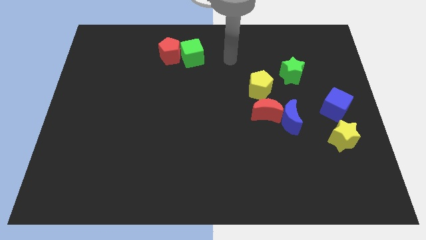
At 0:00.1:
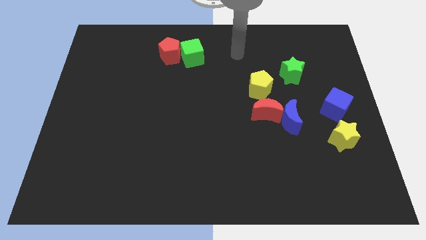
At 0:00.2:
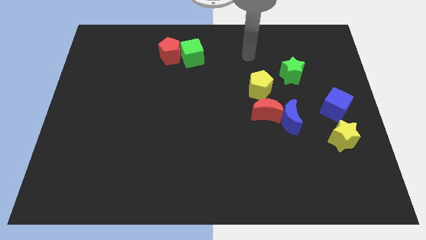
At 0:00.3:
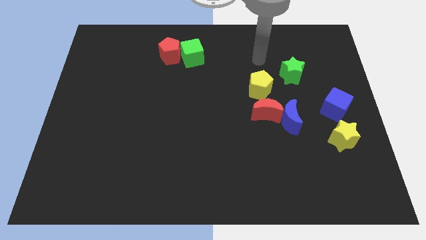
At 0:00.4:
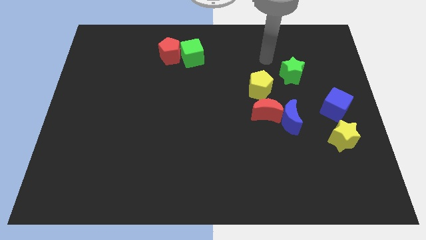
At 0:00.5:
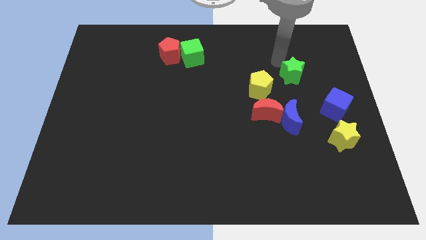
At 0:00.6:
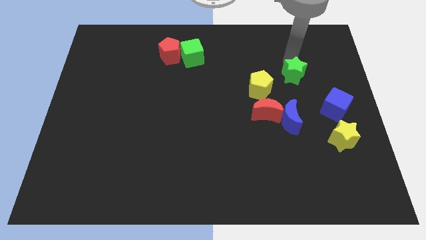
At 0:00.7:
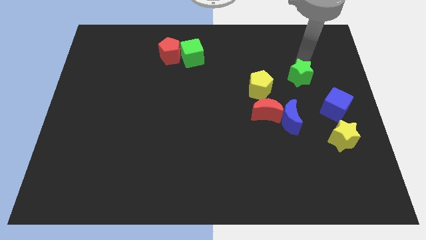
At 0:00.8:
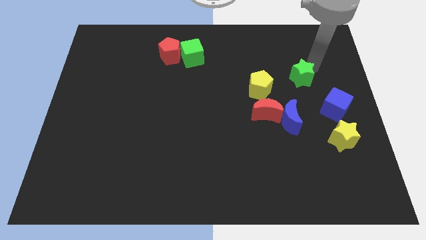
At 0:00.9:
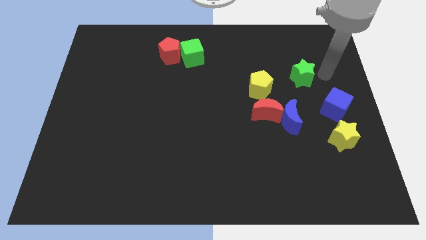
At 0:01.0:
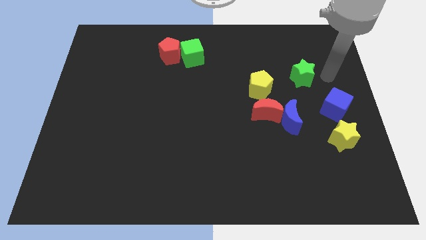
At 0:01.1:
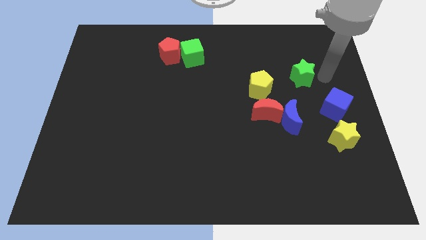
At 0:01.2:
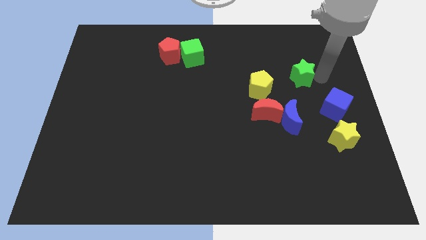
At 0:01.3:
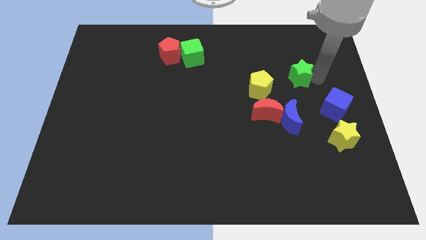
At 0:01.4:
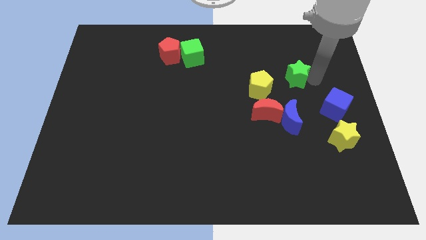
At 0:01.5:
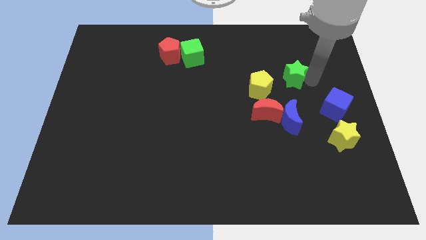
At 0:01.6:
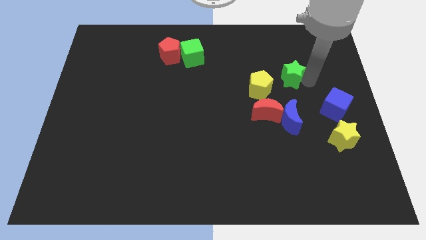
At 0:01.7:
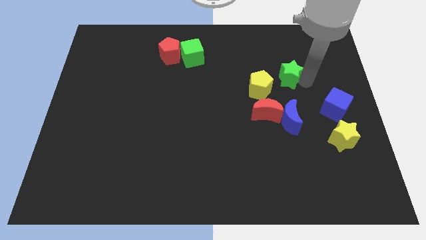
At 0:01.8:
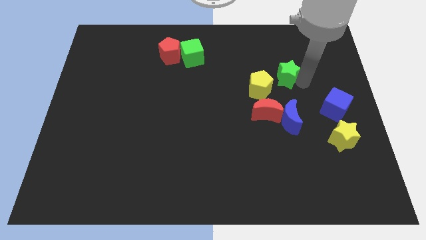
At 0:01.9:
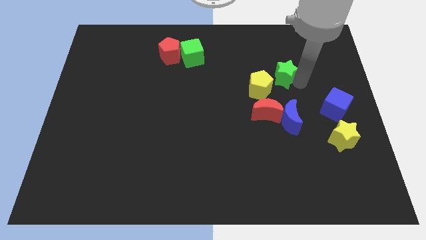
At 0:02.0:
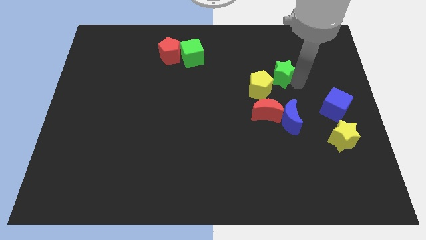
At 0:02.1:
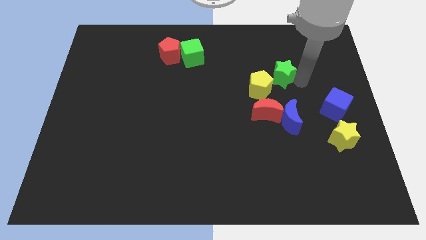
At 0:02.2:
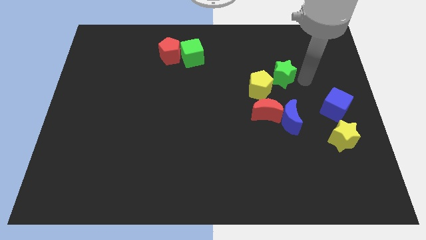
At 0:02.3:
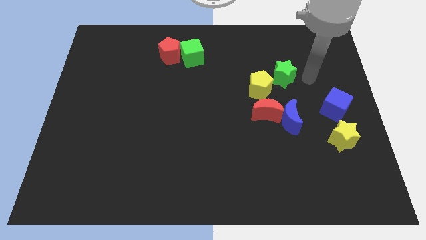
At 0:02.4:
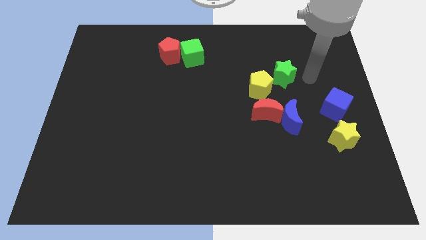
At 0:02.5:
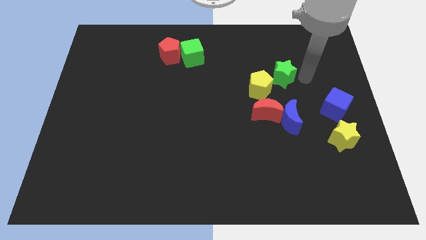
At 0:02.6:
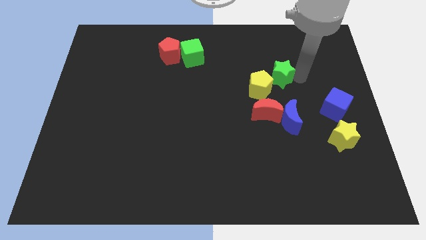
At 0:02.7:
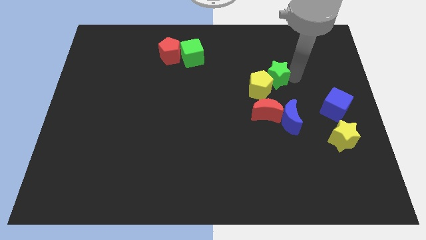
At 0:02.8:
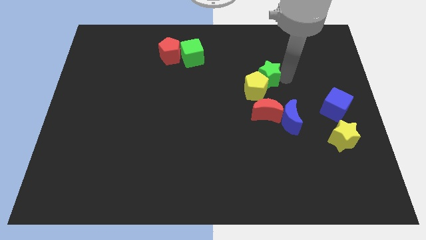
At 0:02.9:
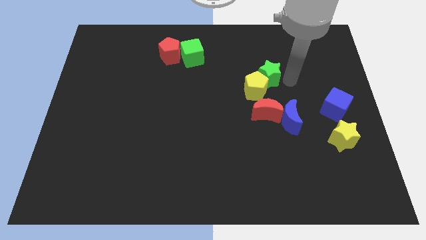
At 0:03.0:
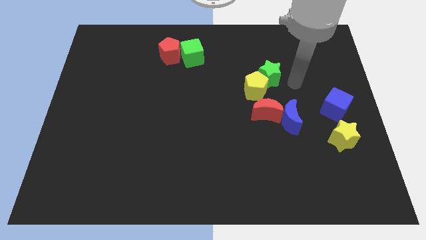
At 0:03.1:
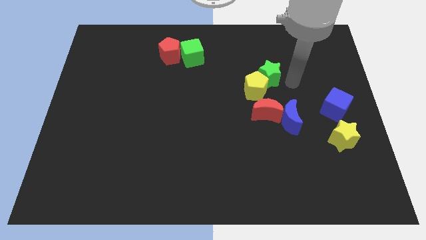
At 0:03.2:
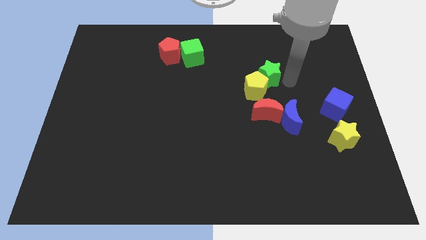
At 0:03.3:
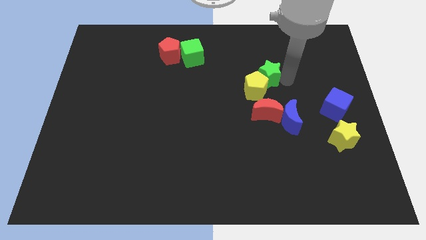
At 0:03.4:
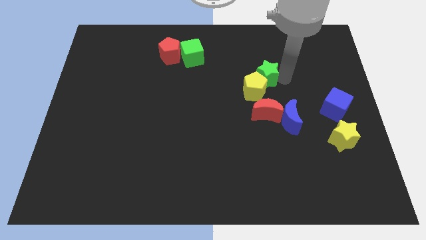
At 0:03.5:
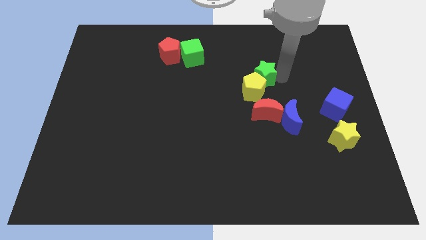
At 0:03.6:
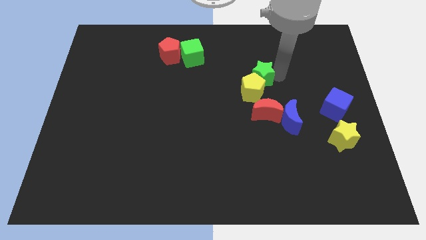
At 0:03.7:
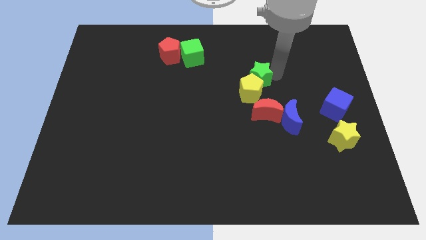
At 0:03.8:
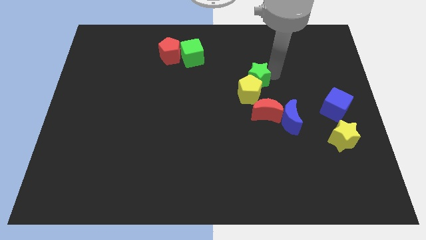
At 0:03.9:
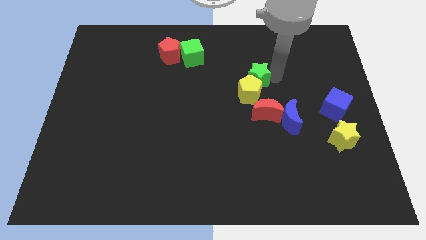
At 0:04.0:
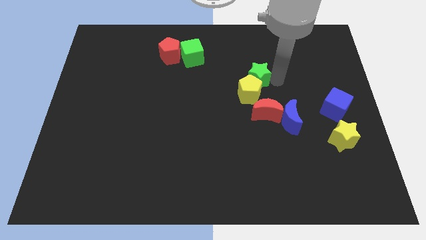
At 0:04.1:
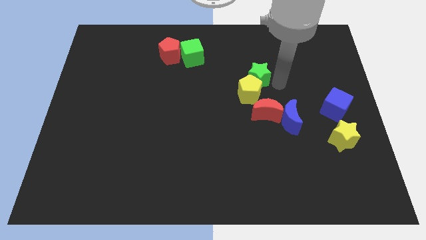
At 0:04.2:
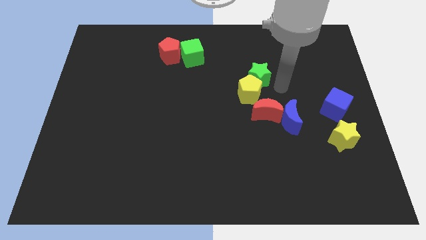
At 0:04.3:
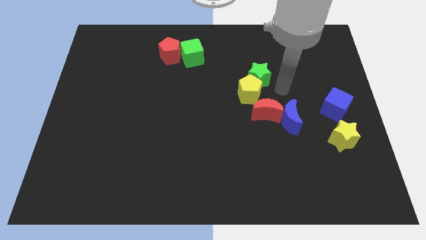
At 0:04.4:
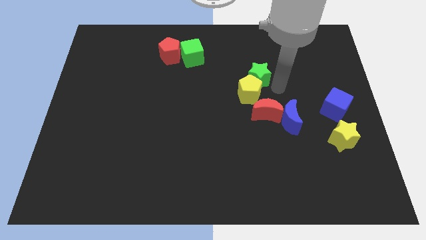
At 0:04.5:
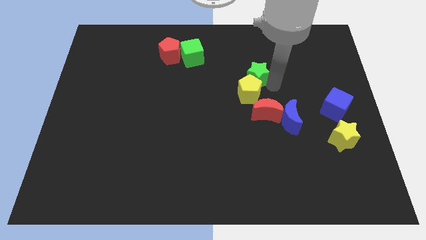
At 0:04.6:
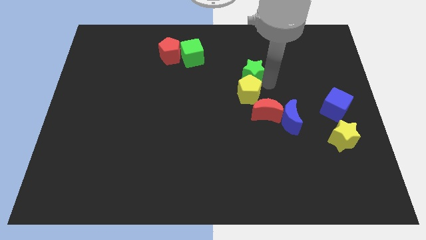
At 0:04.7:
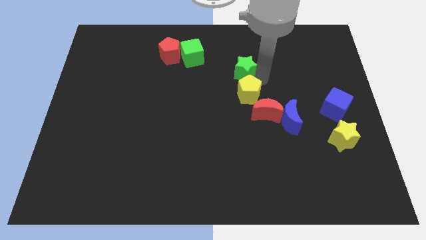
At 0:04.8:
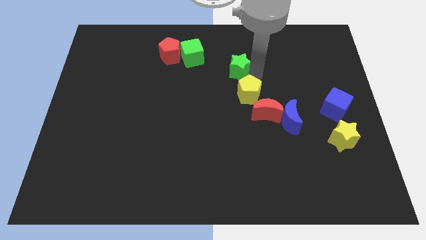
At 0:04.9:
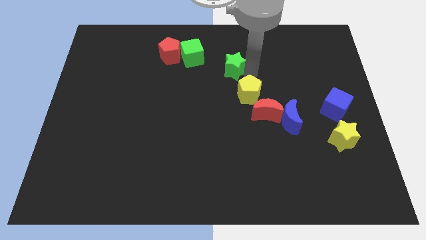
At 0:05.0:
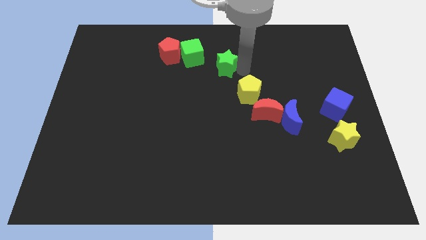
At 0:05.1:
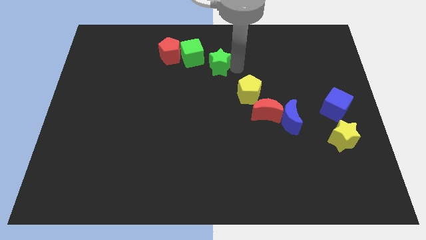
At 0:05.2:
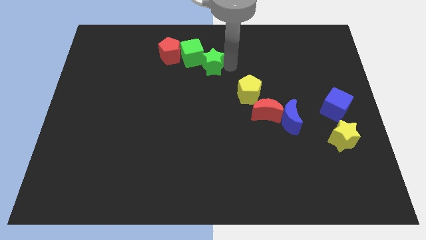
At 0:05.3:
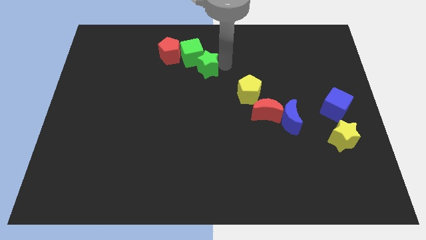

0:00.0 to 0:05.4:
push the green star left

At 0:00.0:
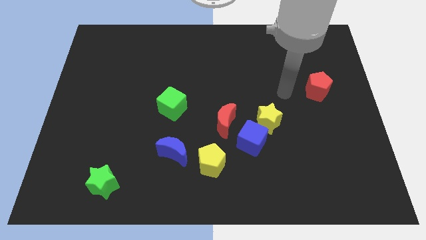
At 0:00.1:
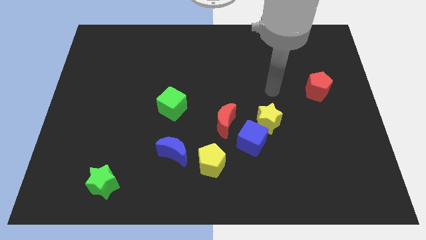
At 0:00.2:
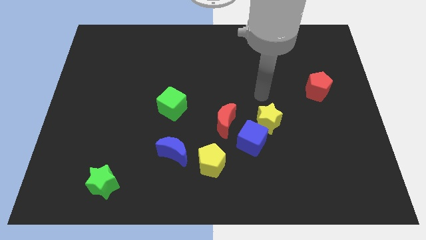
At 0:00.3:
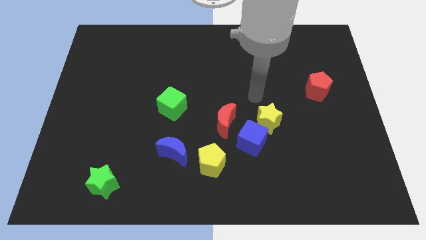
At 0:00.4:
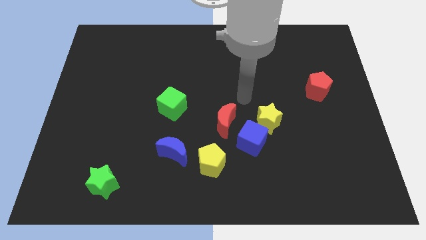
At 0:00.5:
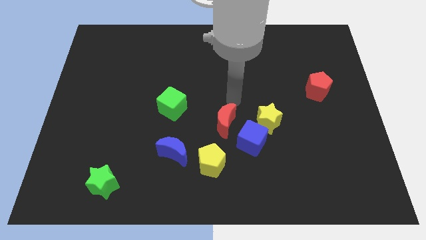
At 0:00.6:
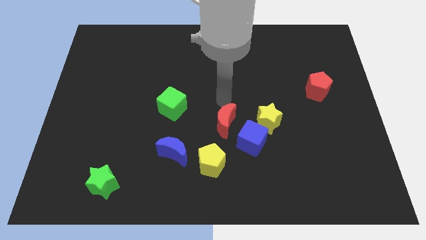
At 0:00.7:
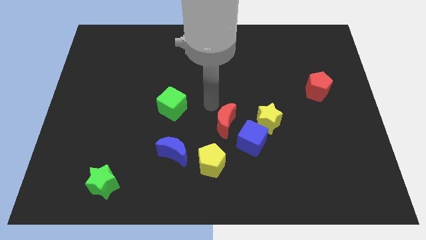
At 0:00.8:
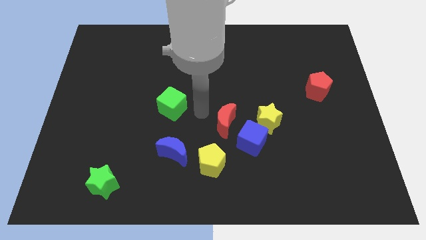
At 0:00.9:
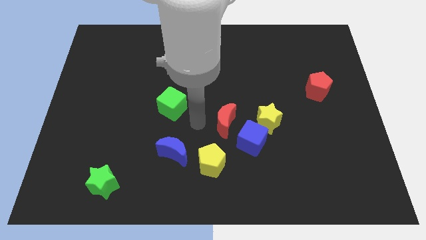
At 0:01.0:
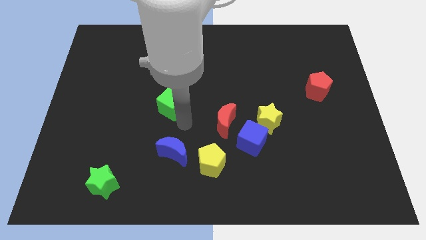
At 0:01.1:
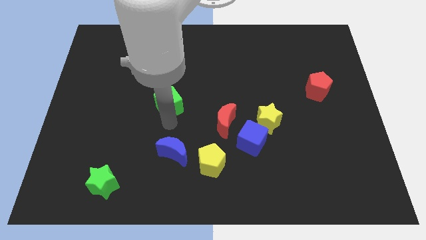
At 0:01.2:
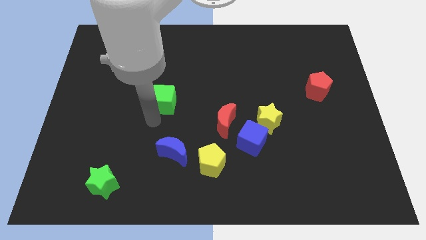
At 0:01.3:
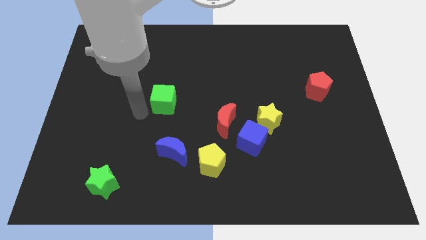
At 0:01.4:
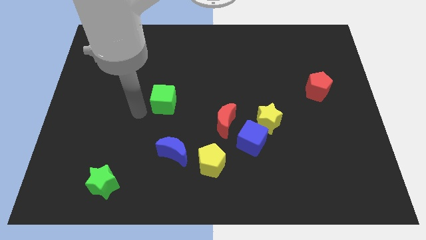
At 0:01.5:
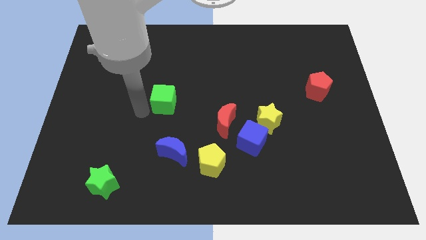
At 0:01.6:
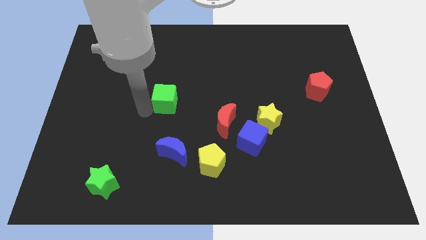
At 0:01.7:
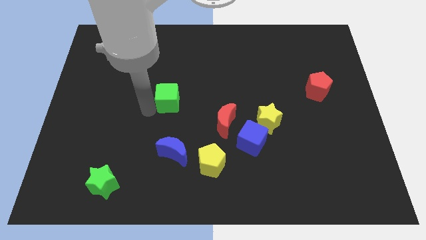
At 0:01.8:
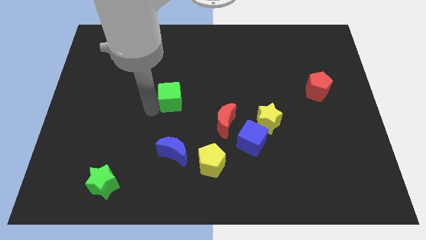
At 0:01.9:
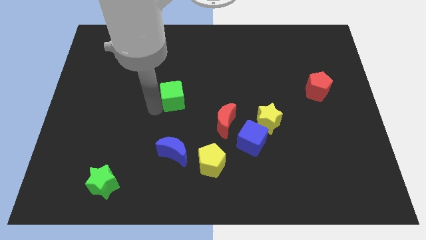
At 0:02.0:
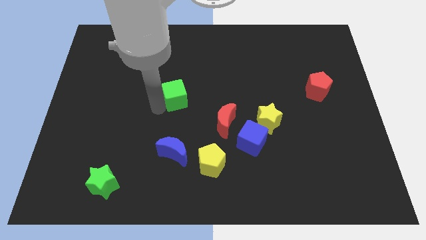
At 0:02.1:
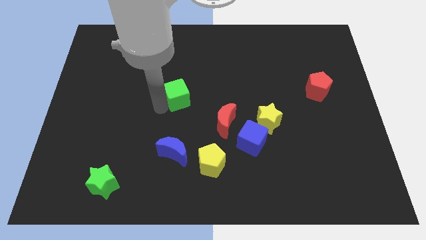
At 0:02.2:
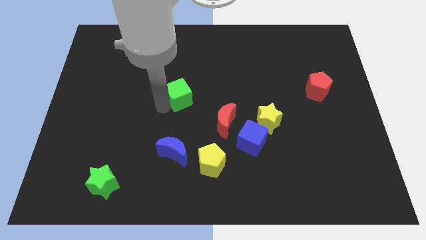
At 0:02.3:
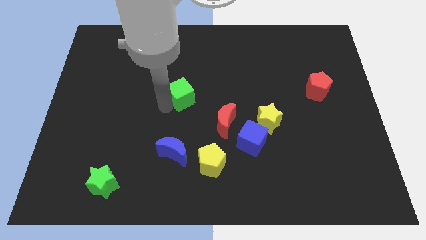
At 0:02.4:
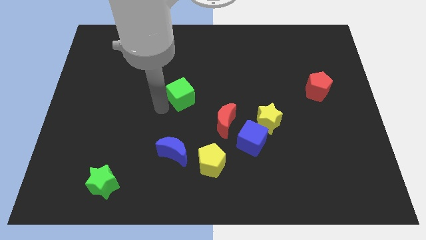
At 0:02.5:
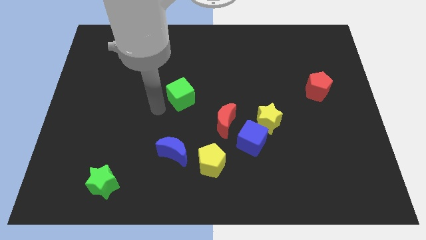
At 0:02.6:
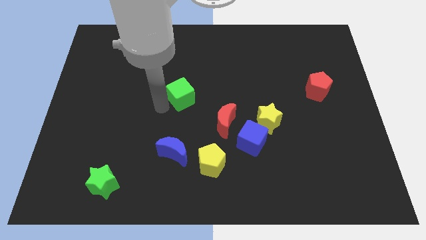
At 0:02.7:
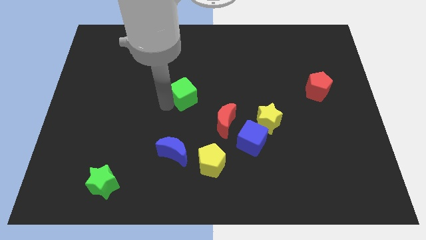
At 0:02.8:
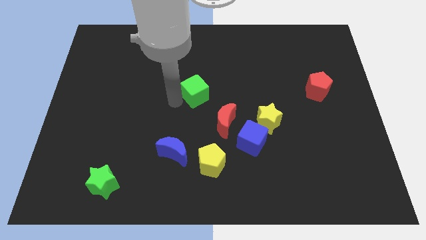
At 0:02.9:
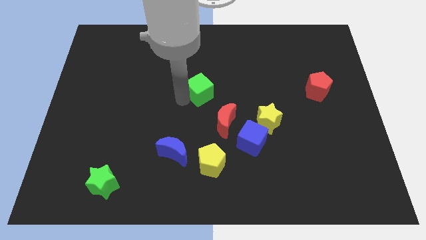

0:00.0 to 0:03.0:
slightly slide the green cube up and right diagonally
